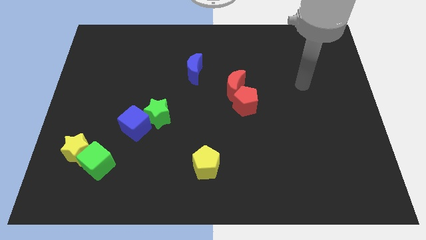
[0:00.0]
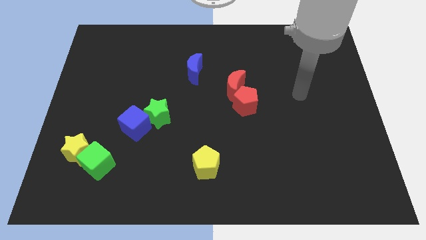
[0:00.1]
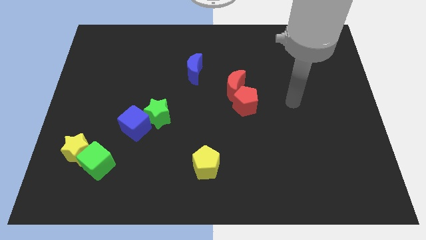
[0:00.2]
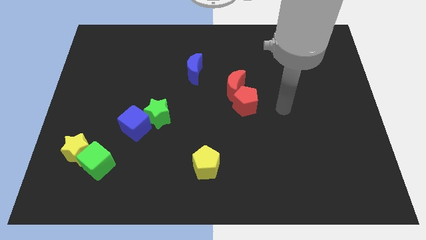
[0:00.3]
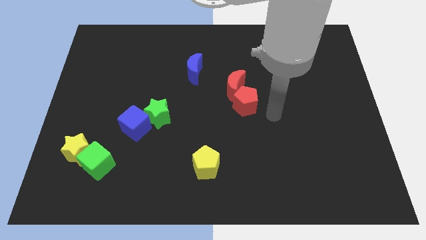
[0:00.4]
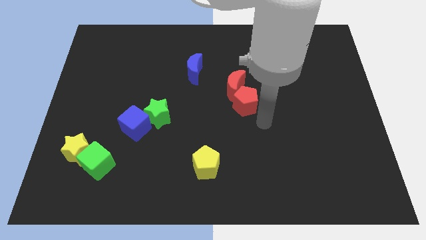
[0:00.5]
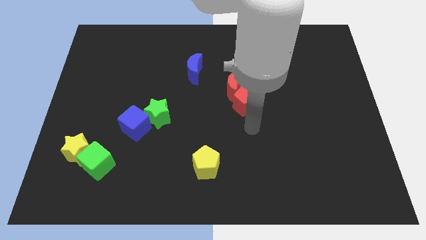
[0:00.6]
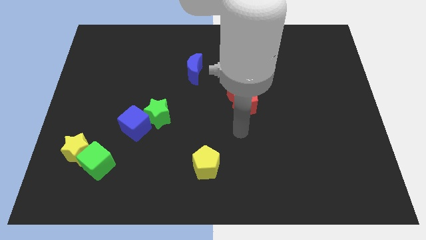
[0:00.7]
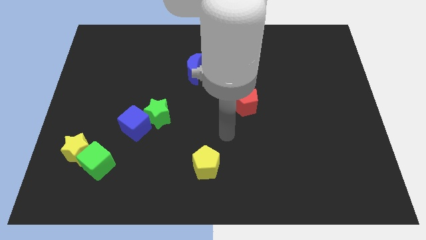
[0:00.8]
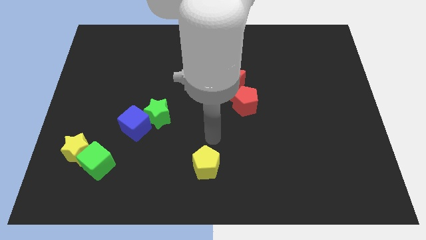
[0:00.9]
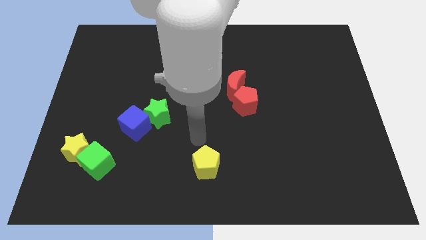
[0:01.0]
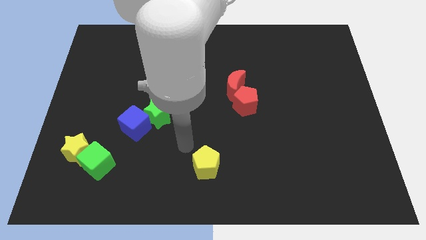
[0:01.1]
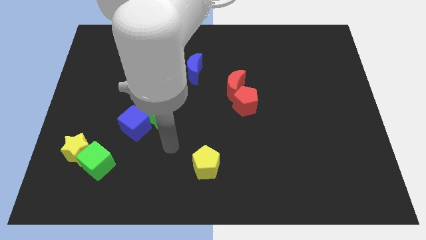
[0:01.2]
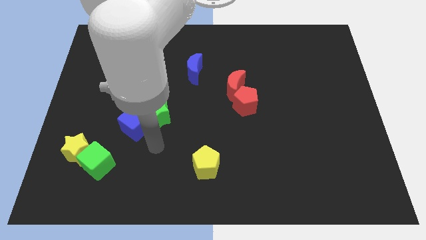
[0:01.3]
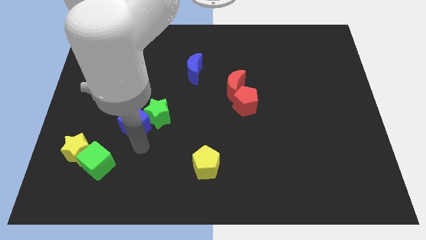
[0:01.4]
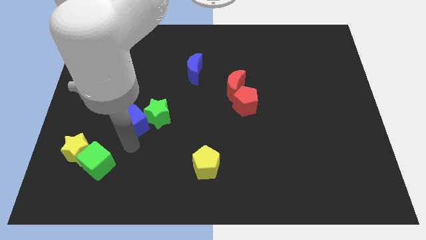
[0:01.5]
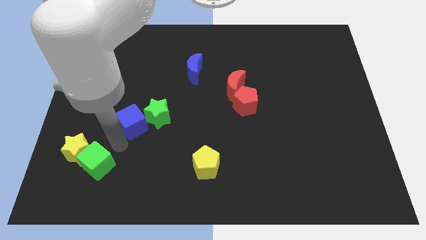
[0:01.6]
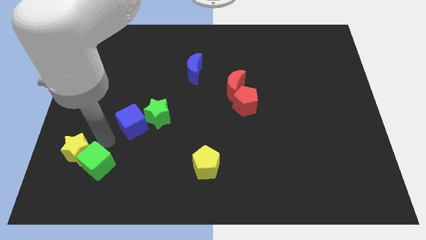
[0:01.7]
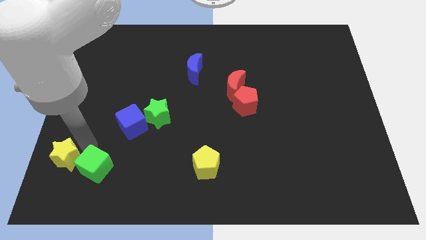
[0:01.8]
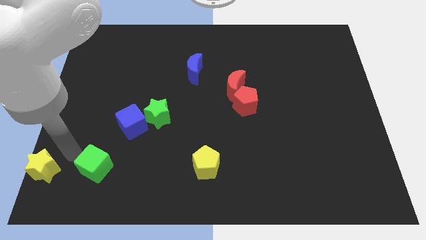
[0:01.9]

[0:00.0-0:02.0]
move the green cube away from the yellow star

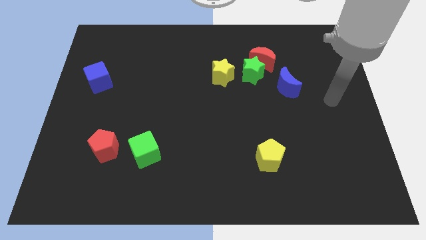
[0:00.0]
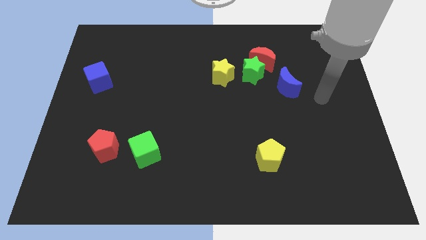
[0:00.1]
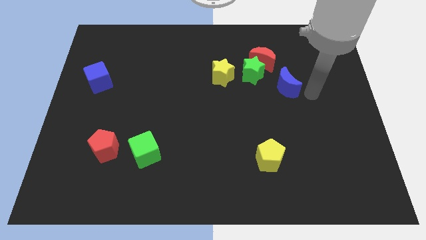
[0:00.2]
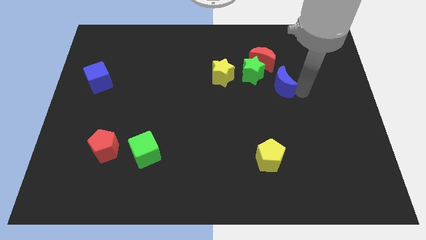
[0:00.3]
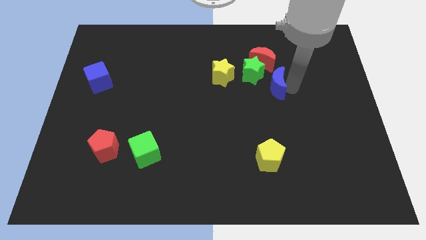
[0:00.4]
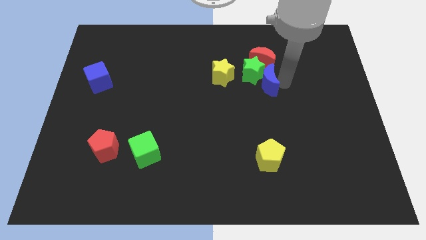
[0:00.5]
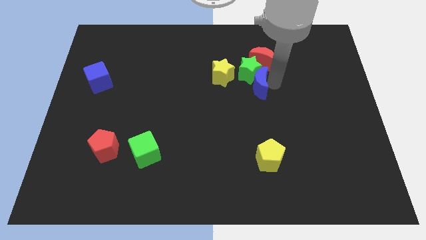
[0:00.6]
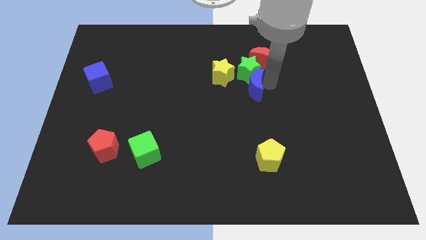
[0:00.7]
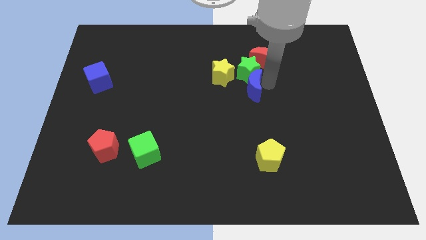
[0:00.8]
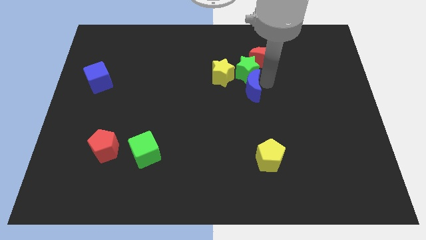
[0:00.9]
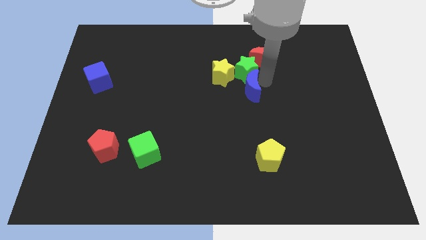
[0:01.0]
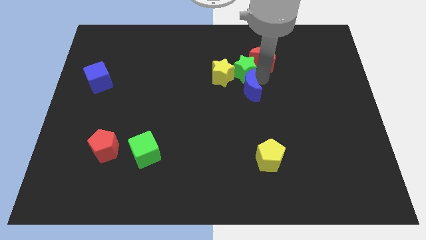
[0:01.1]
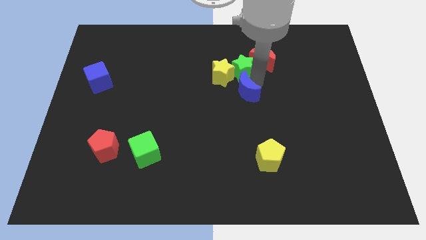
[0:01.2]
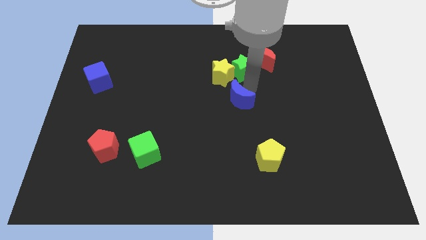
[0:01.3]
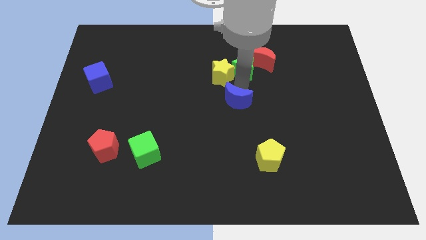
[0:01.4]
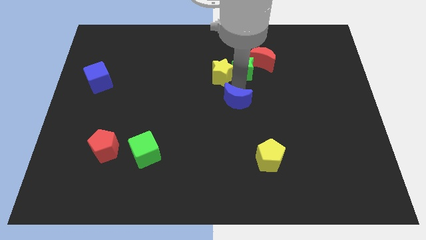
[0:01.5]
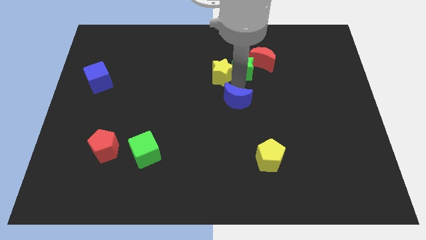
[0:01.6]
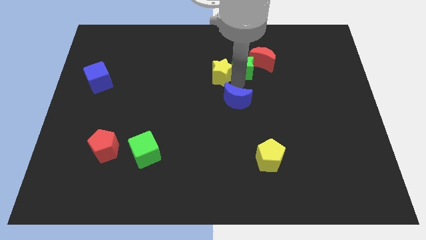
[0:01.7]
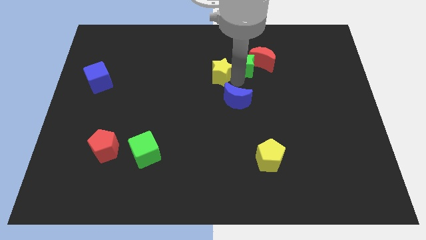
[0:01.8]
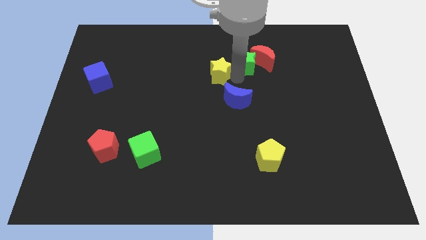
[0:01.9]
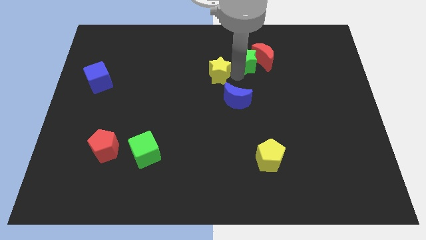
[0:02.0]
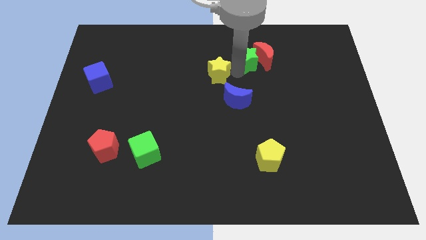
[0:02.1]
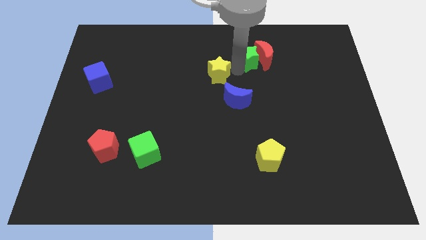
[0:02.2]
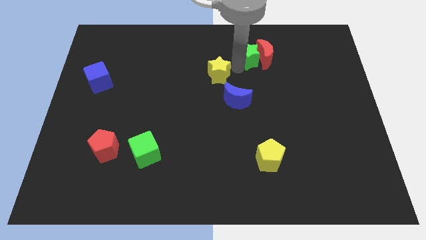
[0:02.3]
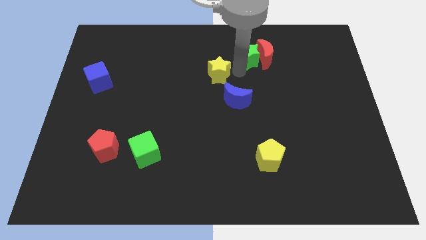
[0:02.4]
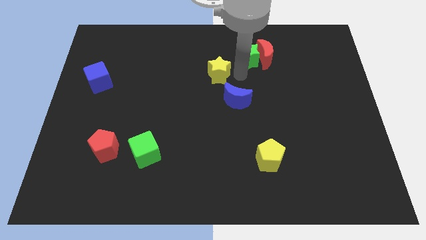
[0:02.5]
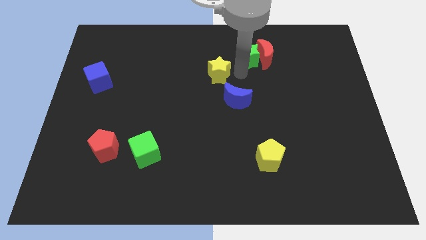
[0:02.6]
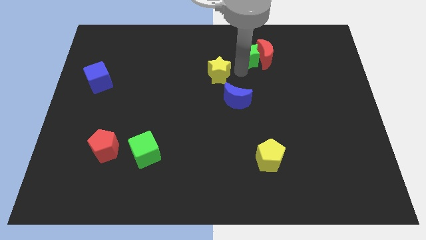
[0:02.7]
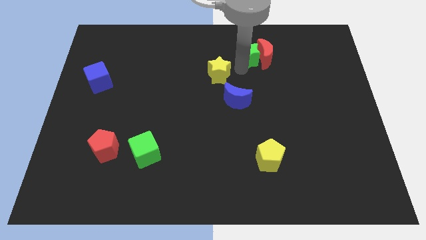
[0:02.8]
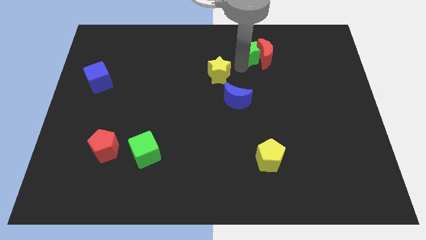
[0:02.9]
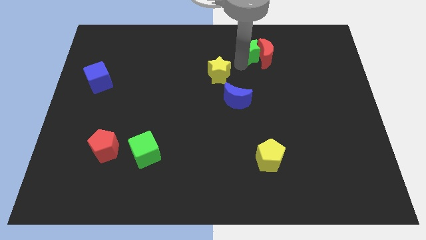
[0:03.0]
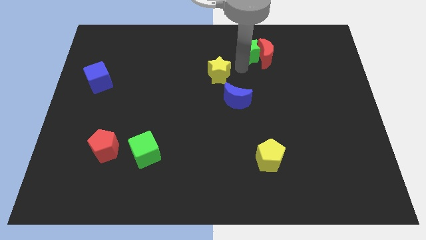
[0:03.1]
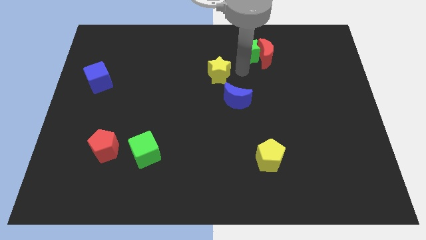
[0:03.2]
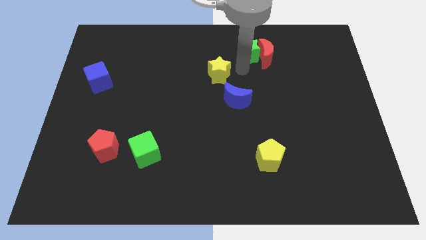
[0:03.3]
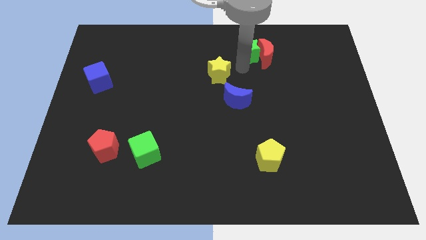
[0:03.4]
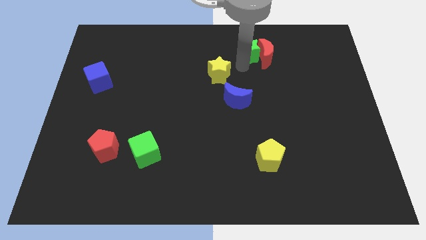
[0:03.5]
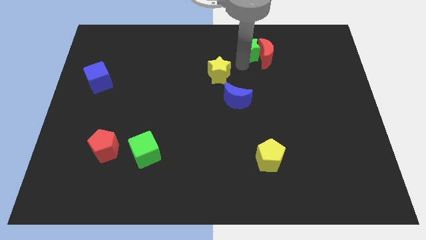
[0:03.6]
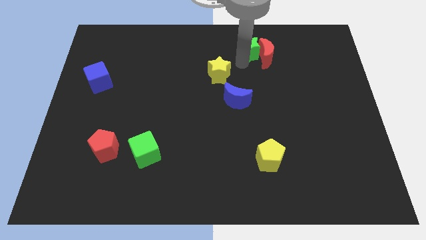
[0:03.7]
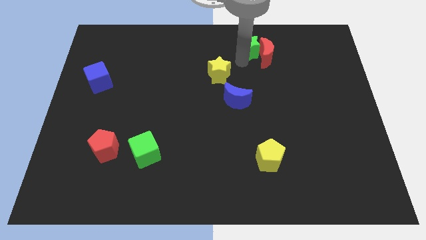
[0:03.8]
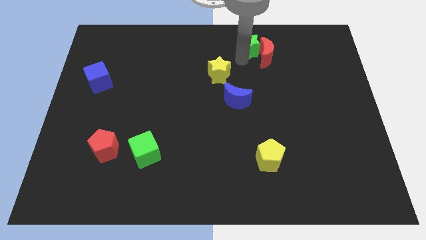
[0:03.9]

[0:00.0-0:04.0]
pull the green star apart from the group

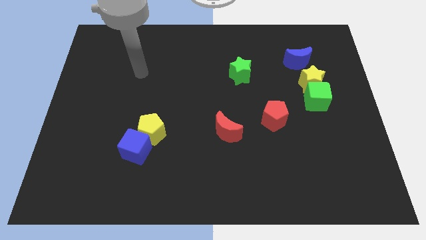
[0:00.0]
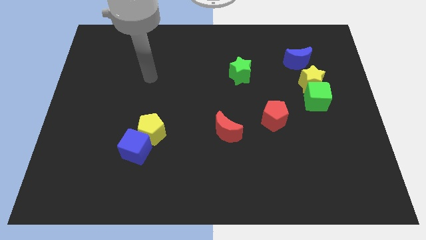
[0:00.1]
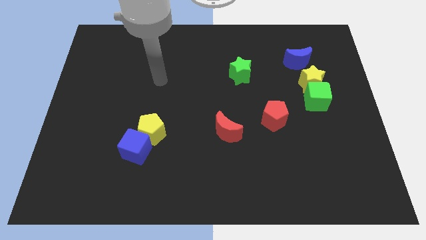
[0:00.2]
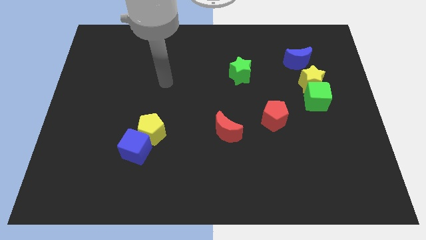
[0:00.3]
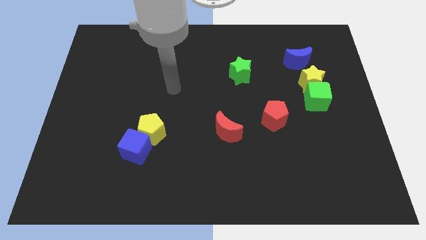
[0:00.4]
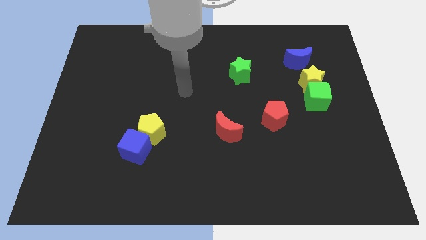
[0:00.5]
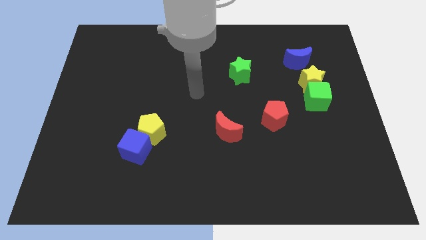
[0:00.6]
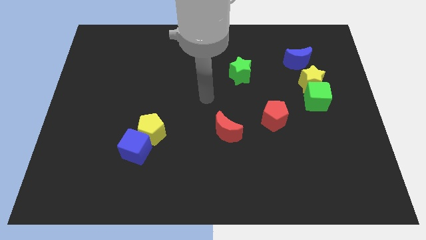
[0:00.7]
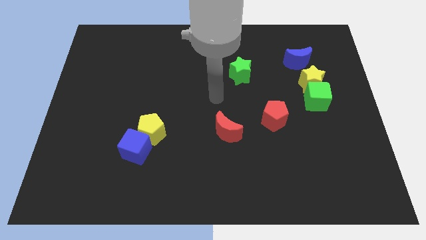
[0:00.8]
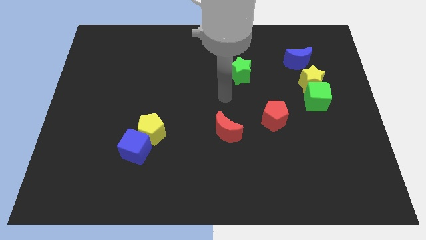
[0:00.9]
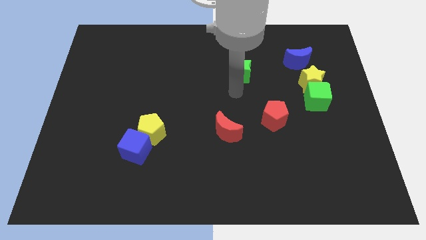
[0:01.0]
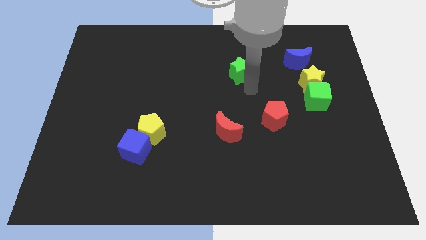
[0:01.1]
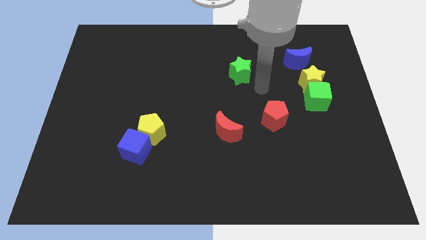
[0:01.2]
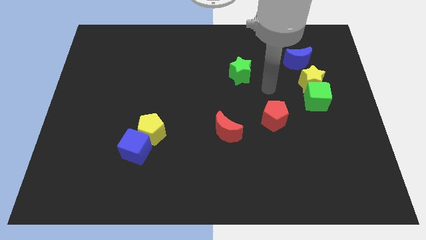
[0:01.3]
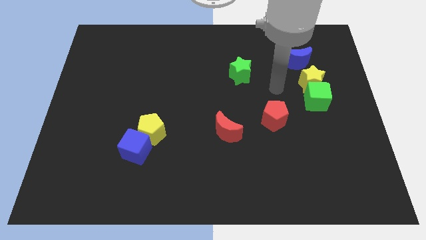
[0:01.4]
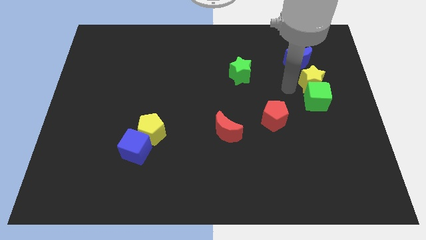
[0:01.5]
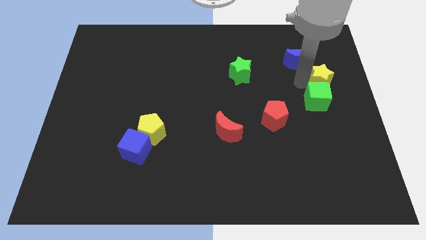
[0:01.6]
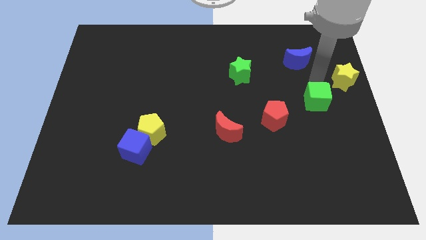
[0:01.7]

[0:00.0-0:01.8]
pull the green cube apart from the yellow star

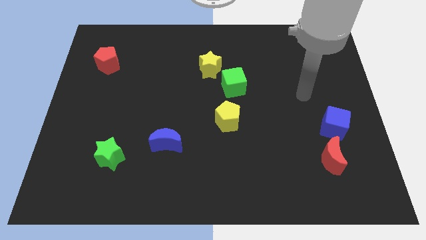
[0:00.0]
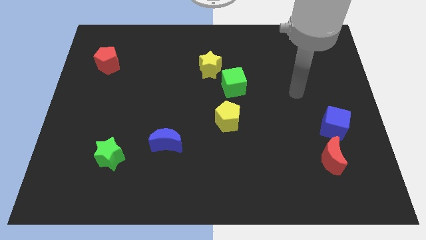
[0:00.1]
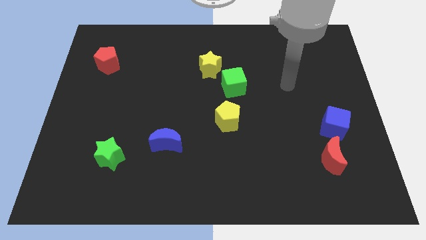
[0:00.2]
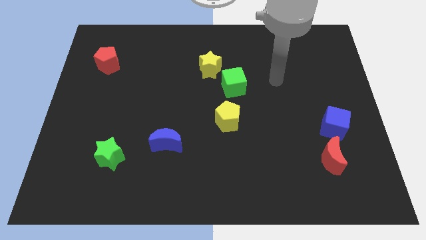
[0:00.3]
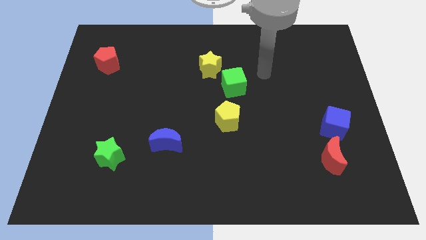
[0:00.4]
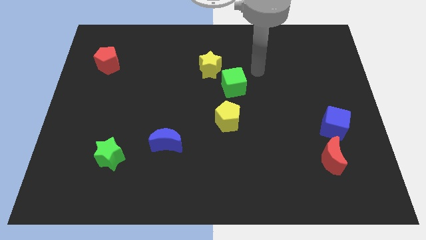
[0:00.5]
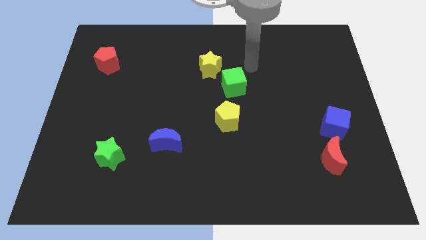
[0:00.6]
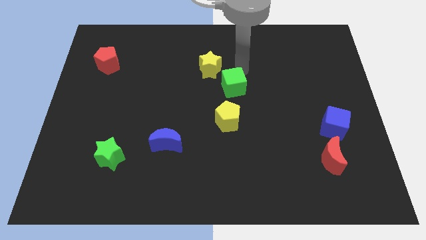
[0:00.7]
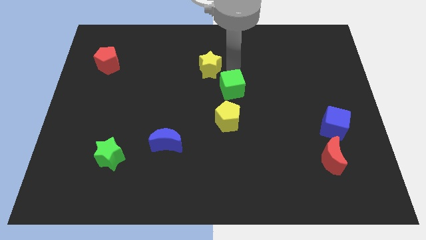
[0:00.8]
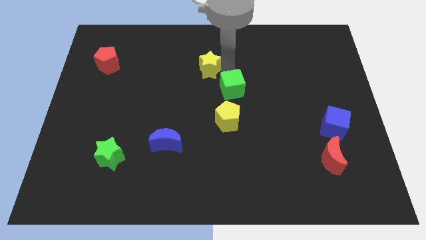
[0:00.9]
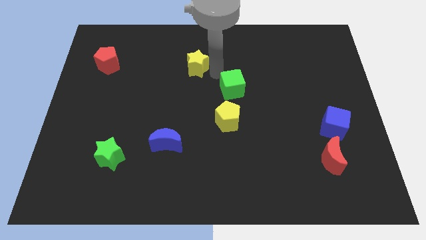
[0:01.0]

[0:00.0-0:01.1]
separate the green cube from the yellow star

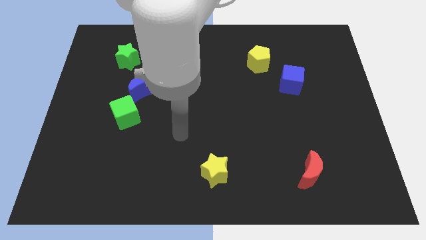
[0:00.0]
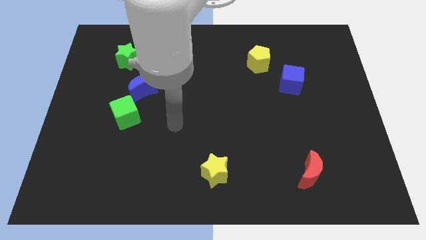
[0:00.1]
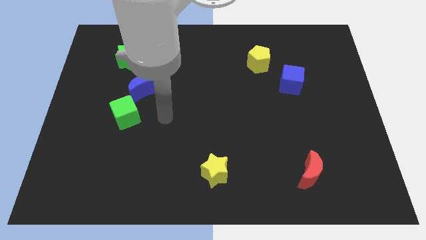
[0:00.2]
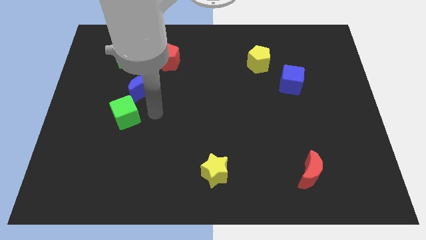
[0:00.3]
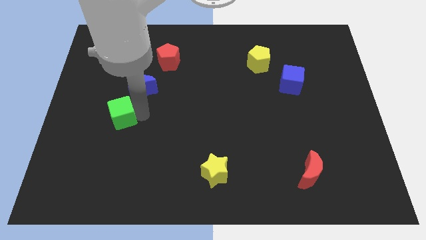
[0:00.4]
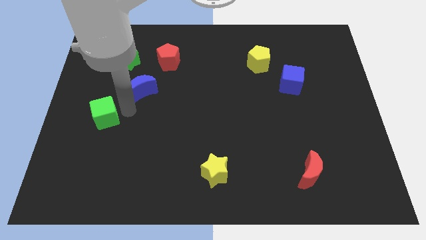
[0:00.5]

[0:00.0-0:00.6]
move the blue moon away from the green cube
